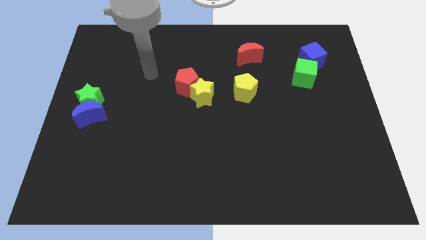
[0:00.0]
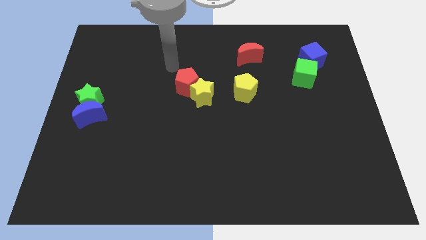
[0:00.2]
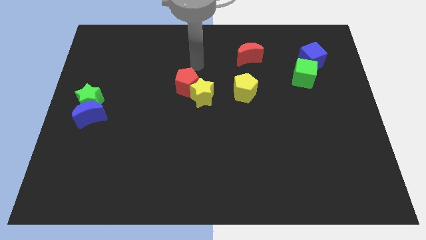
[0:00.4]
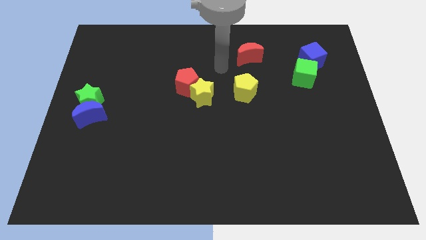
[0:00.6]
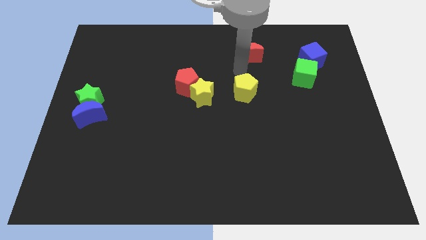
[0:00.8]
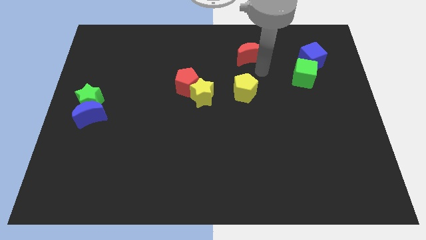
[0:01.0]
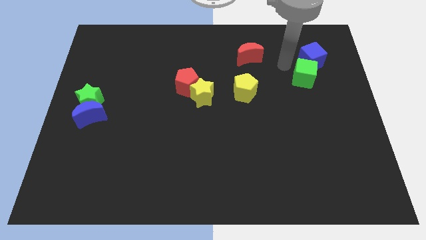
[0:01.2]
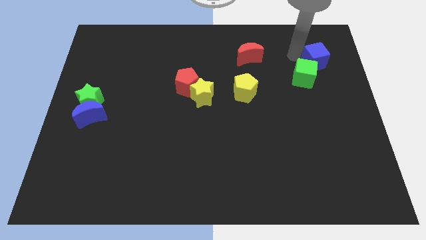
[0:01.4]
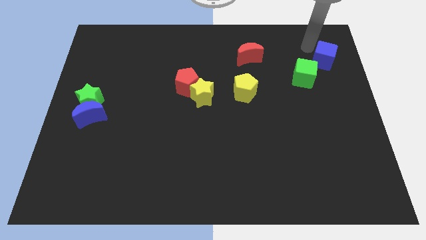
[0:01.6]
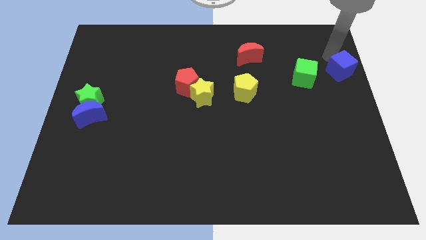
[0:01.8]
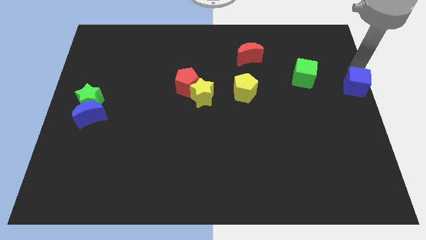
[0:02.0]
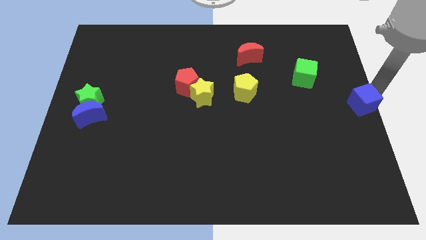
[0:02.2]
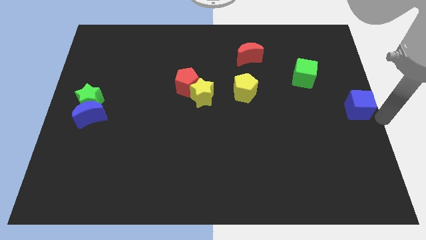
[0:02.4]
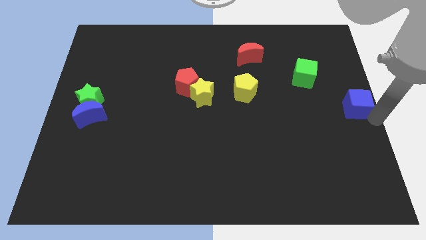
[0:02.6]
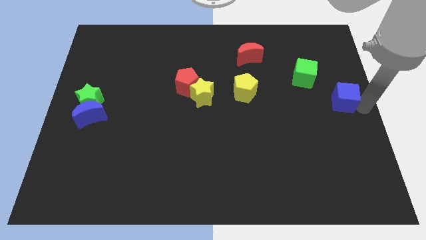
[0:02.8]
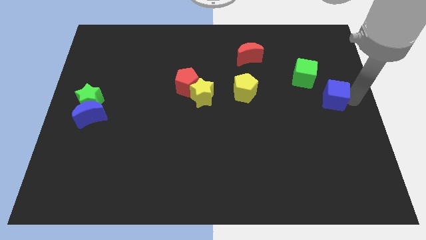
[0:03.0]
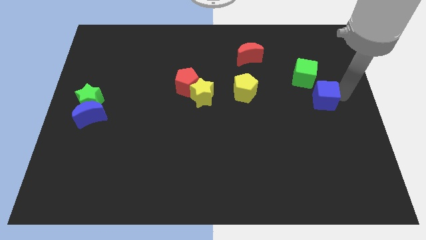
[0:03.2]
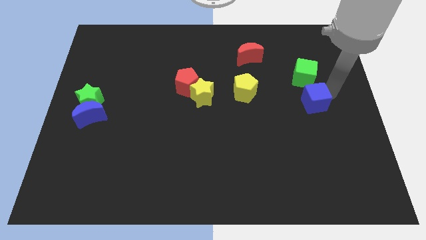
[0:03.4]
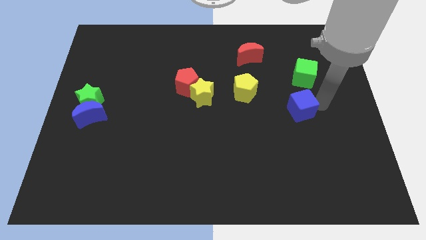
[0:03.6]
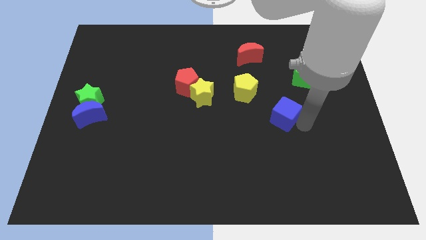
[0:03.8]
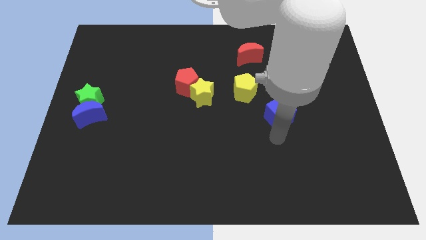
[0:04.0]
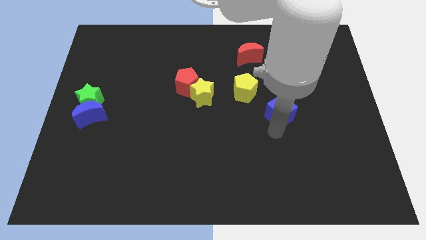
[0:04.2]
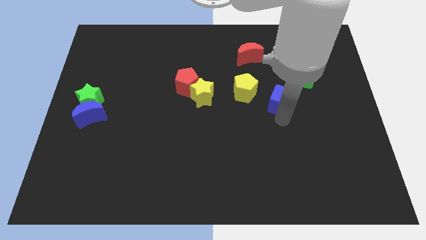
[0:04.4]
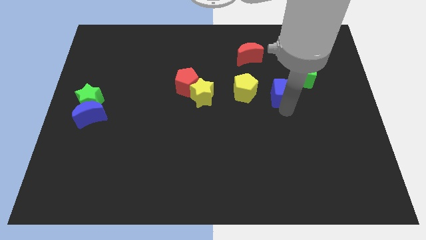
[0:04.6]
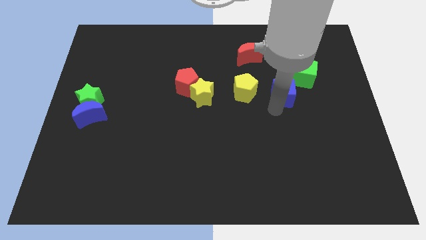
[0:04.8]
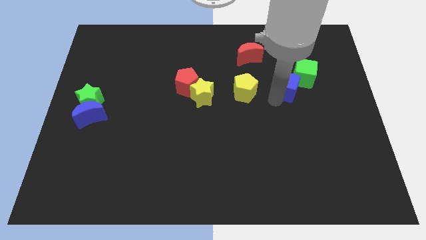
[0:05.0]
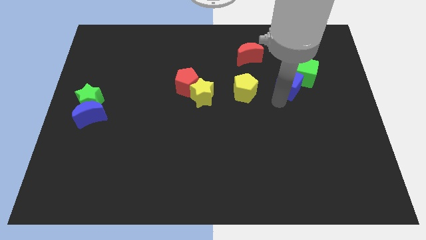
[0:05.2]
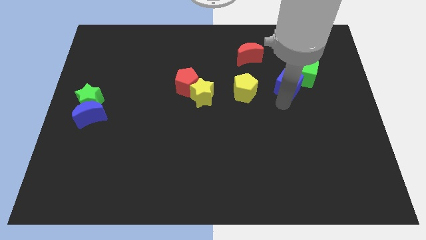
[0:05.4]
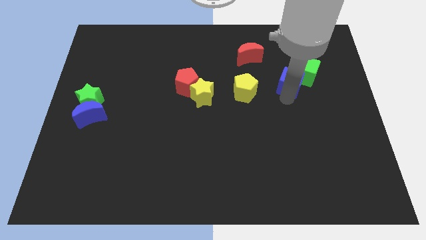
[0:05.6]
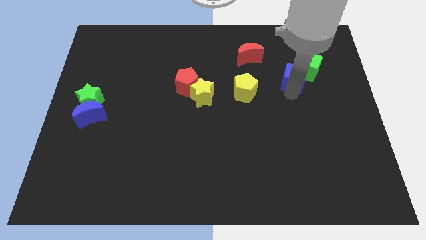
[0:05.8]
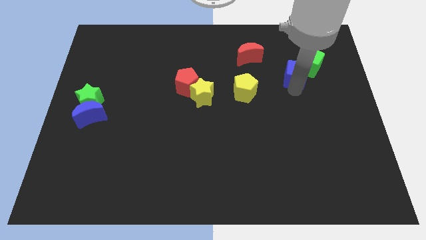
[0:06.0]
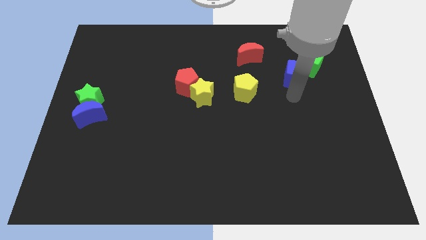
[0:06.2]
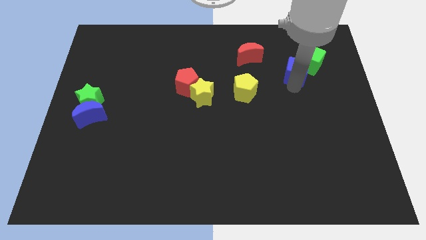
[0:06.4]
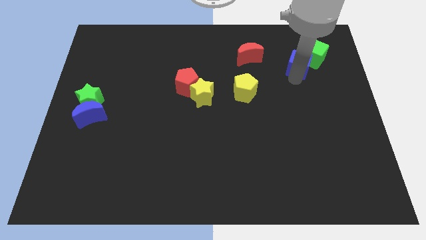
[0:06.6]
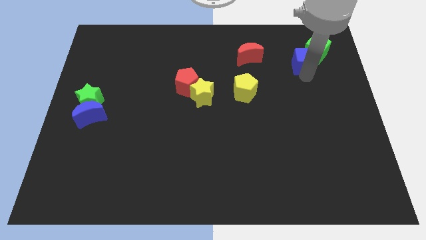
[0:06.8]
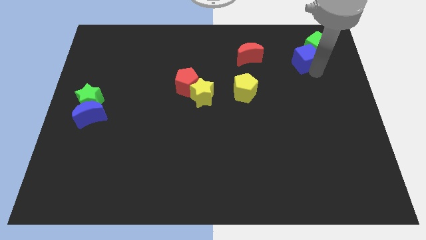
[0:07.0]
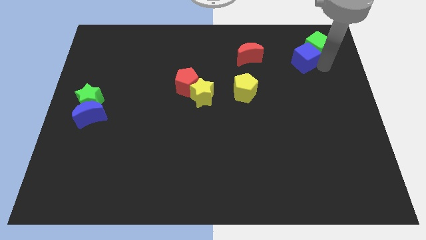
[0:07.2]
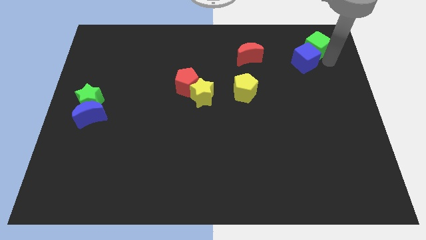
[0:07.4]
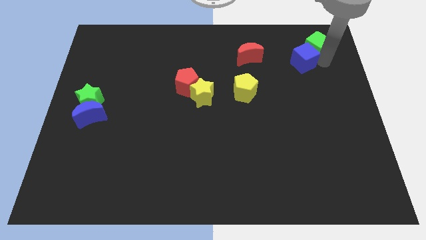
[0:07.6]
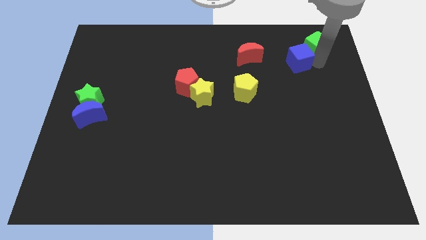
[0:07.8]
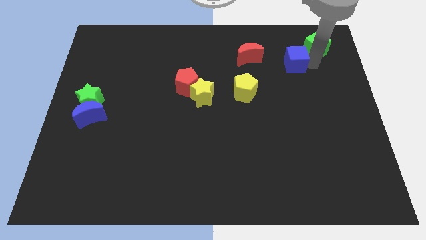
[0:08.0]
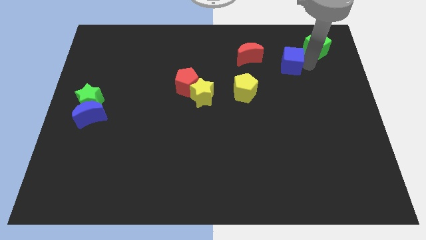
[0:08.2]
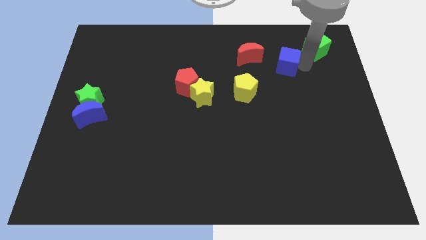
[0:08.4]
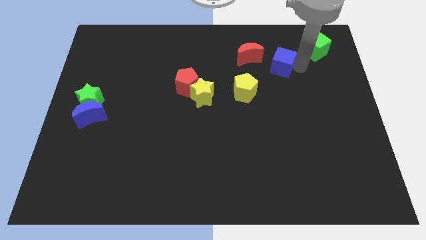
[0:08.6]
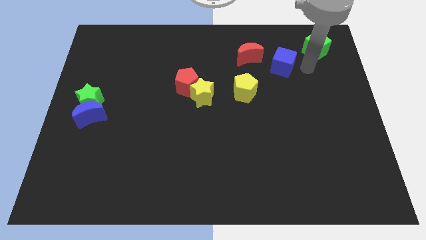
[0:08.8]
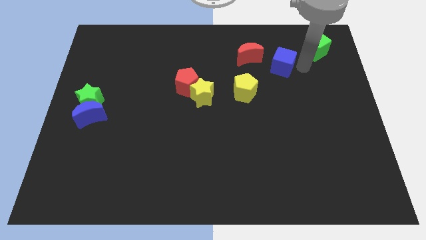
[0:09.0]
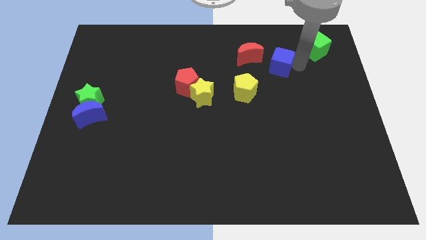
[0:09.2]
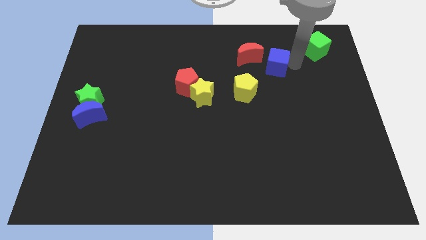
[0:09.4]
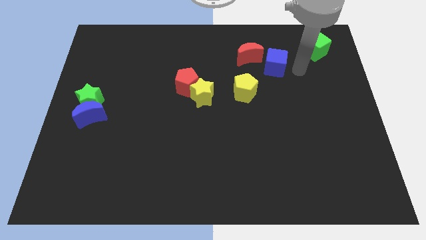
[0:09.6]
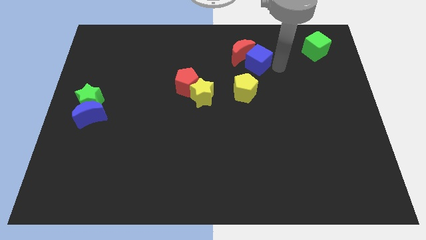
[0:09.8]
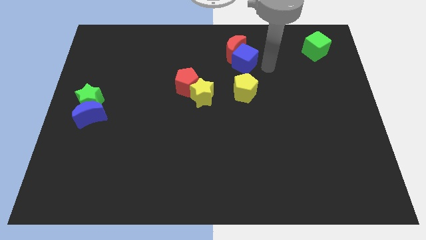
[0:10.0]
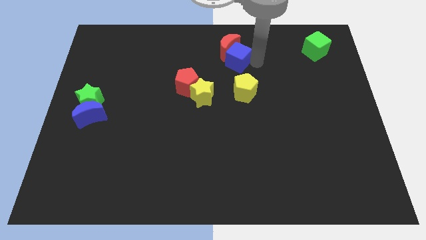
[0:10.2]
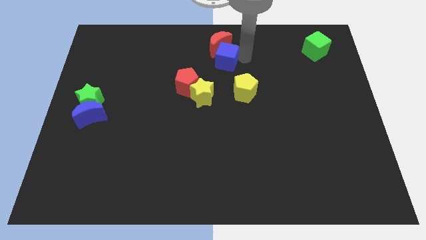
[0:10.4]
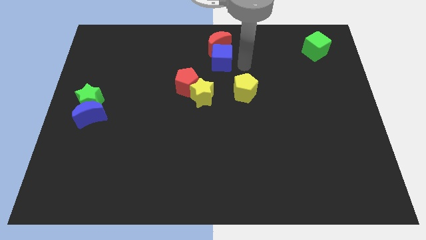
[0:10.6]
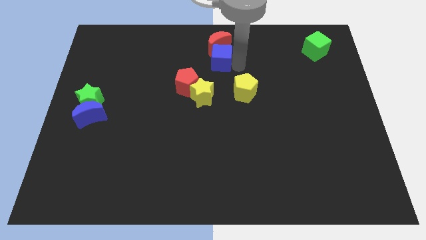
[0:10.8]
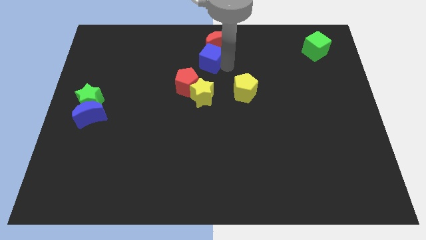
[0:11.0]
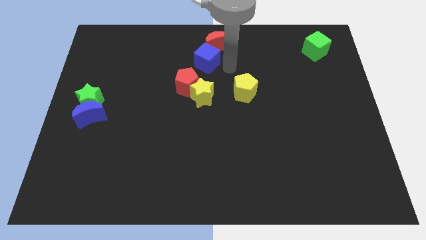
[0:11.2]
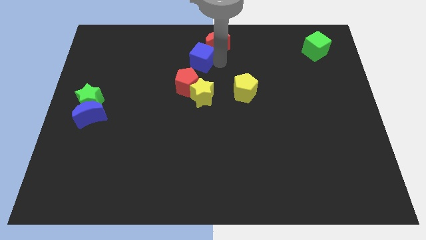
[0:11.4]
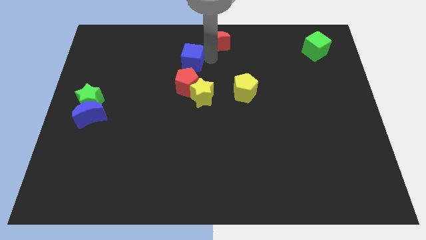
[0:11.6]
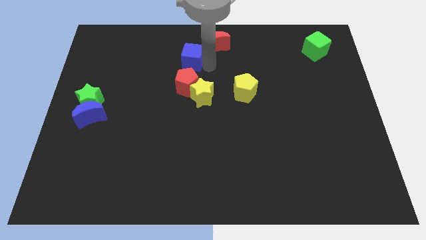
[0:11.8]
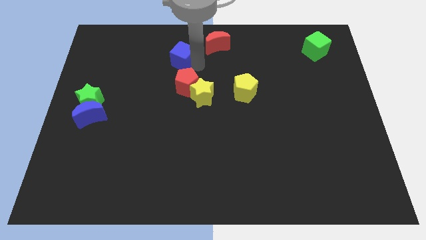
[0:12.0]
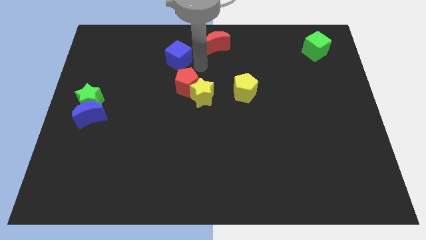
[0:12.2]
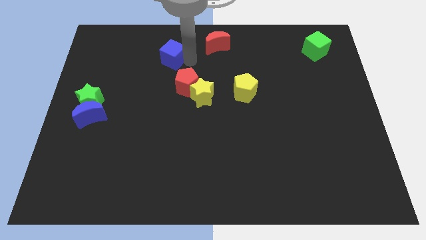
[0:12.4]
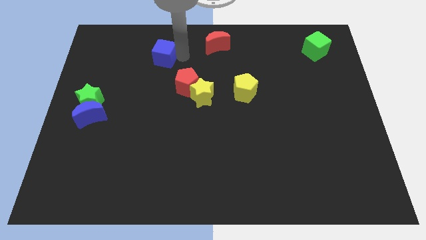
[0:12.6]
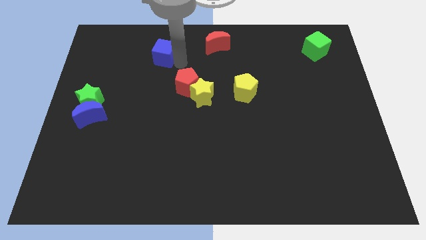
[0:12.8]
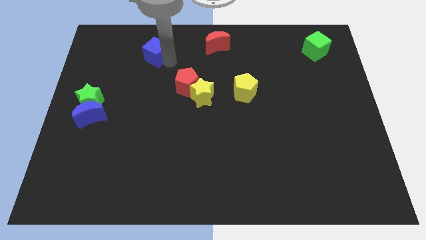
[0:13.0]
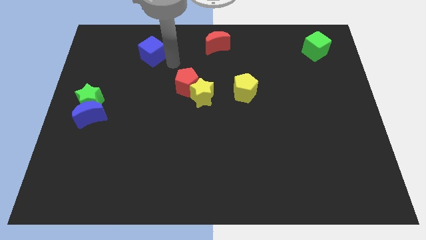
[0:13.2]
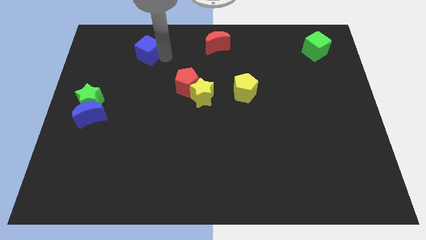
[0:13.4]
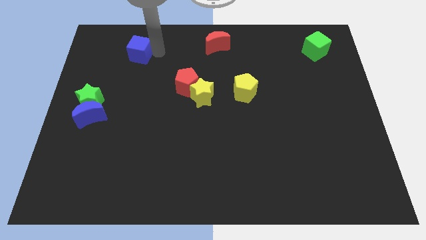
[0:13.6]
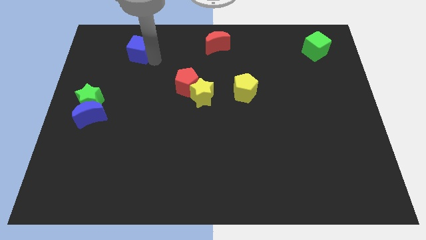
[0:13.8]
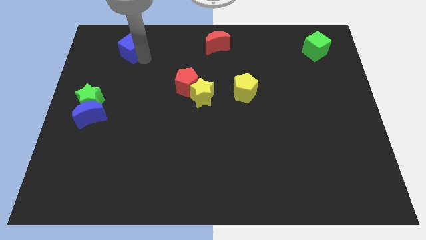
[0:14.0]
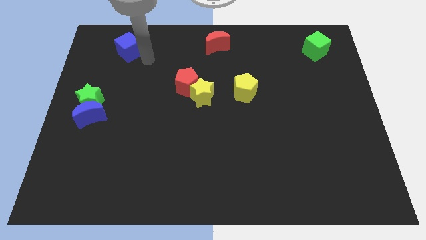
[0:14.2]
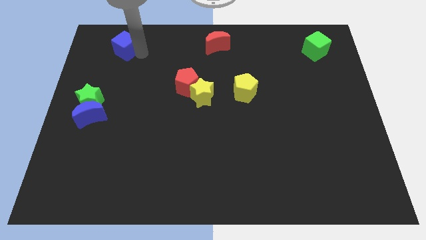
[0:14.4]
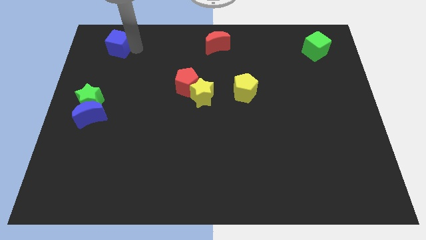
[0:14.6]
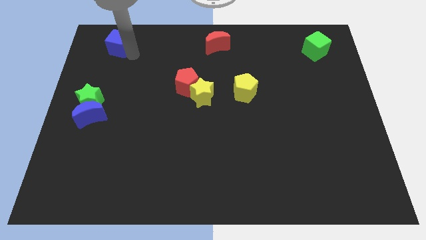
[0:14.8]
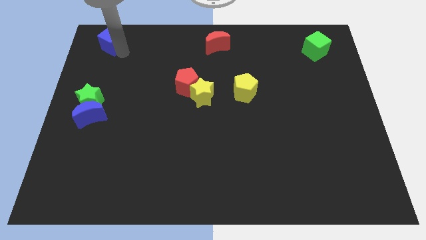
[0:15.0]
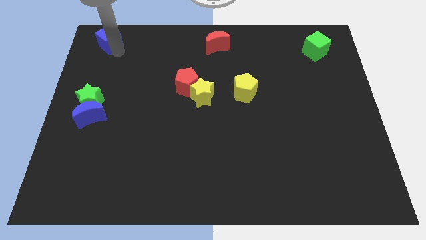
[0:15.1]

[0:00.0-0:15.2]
move the blue cube to the upper left corner
